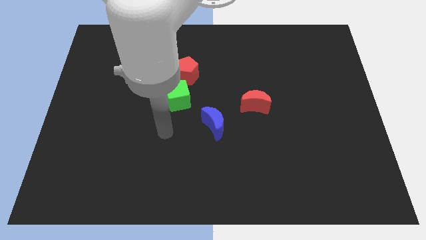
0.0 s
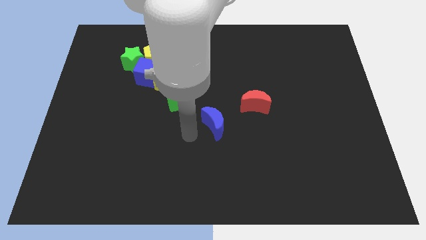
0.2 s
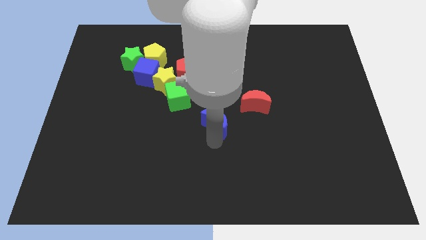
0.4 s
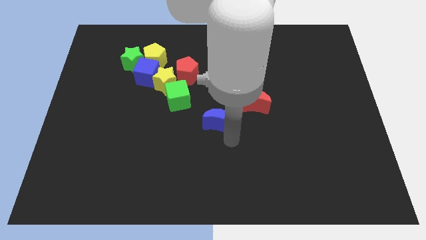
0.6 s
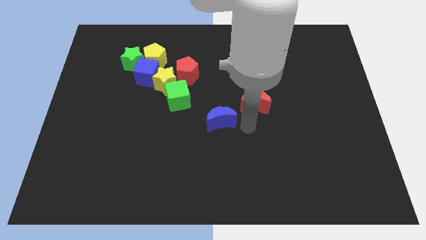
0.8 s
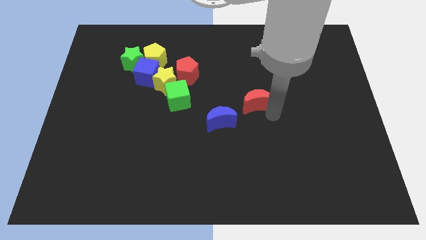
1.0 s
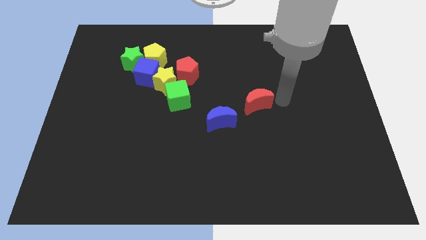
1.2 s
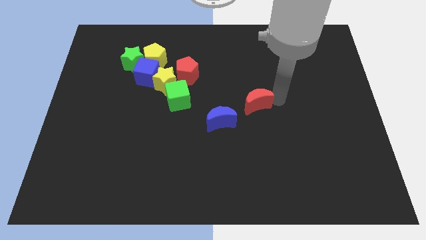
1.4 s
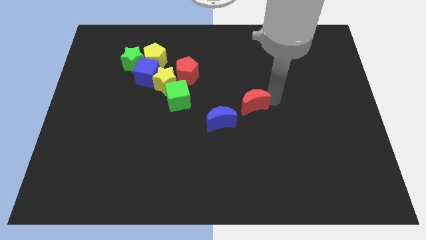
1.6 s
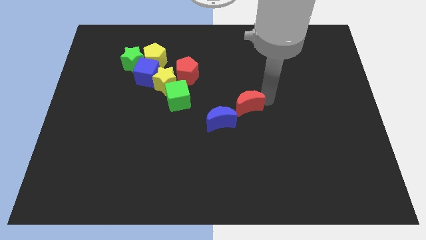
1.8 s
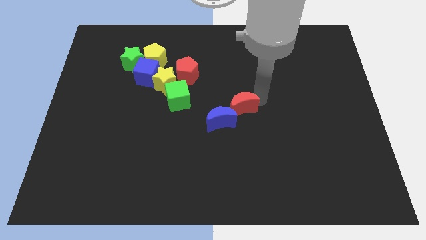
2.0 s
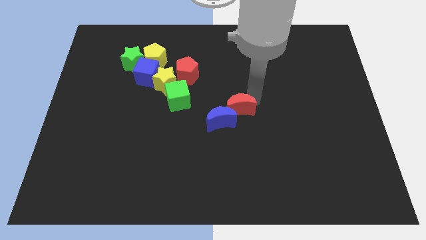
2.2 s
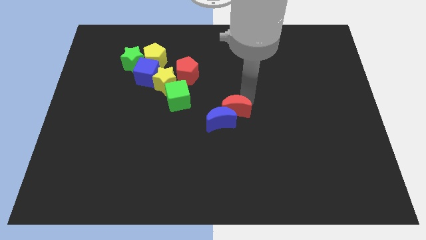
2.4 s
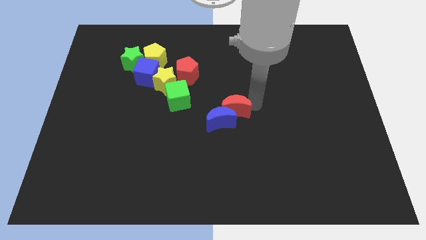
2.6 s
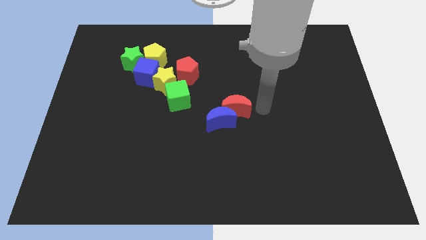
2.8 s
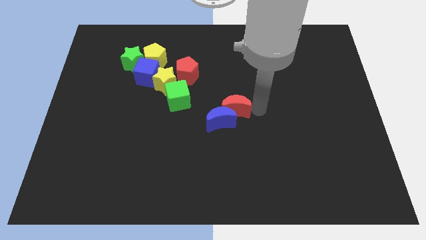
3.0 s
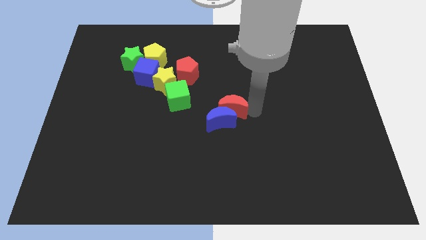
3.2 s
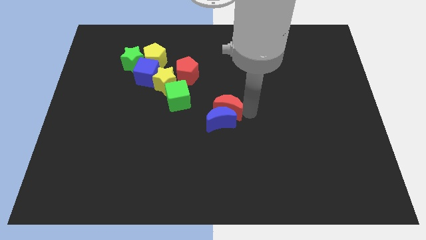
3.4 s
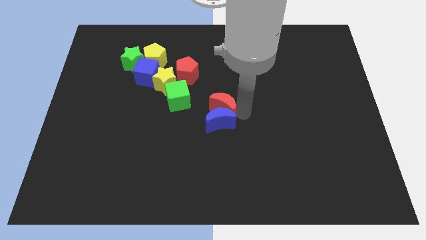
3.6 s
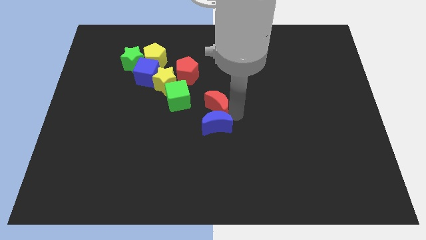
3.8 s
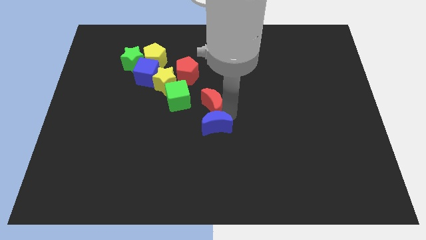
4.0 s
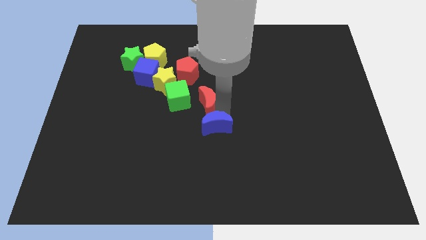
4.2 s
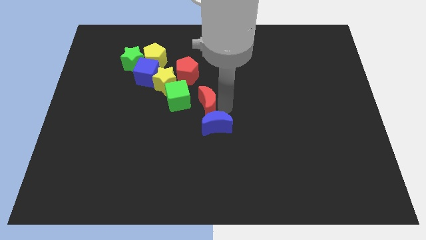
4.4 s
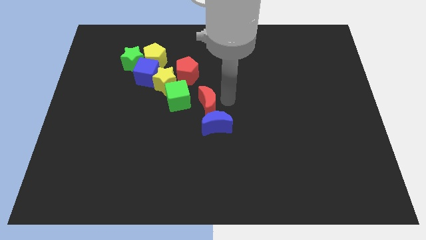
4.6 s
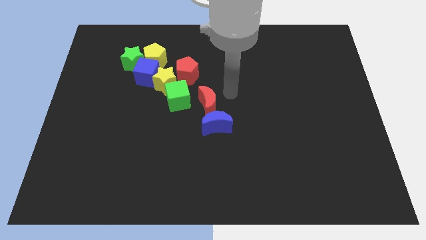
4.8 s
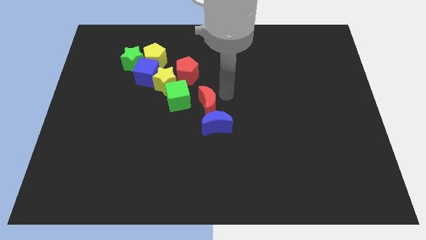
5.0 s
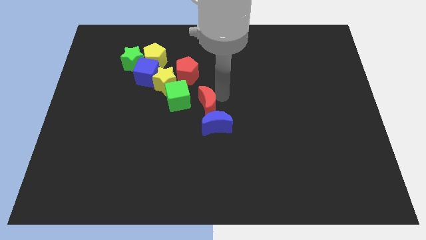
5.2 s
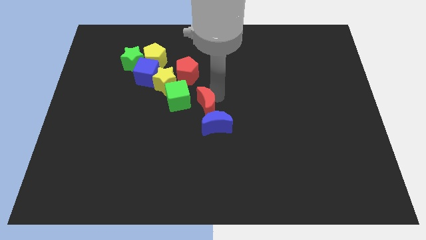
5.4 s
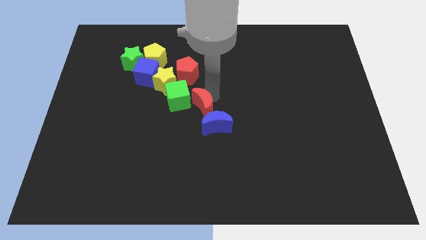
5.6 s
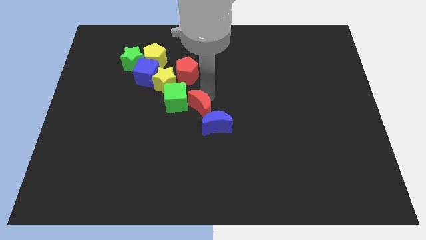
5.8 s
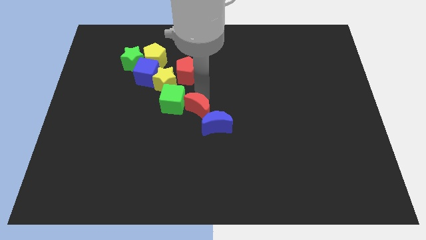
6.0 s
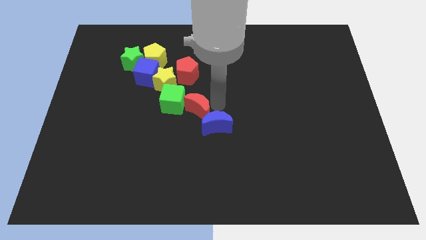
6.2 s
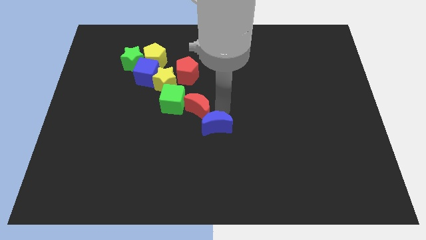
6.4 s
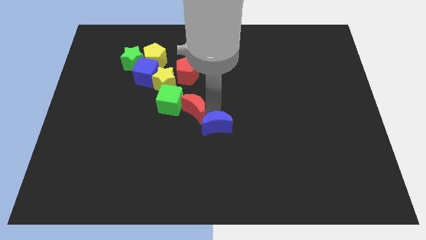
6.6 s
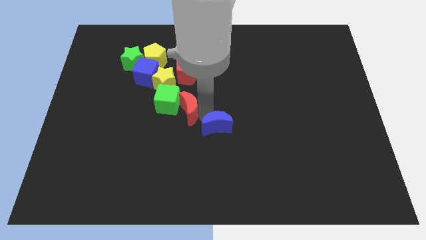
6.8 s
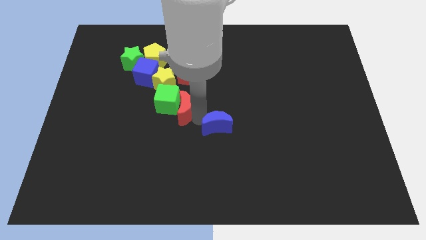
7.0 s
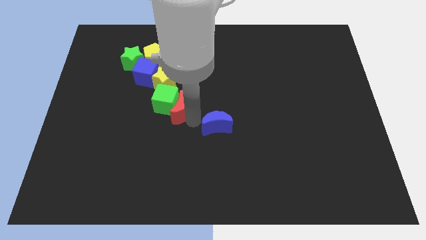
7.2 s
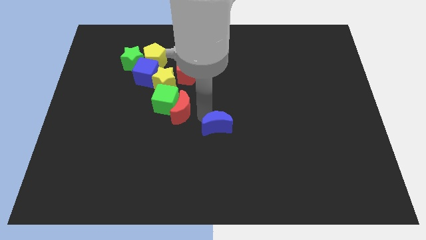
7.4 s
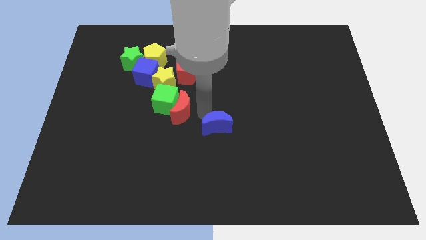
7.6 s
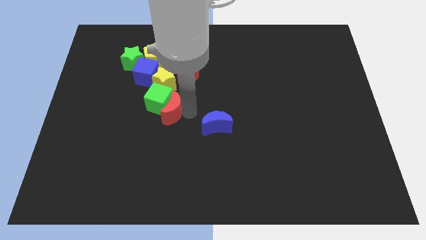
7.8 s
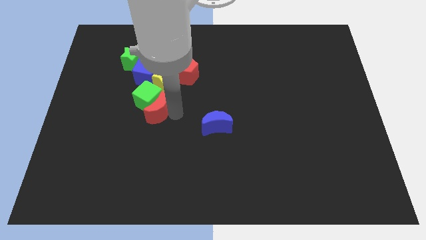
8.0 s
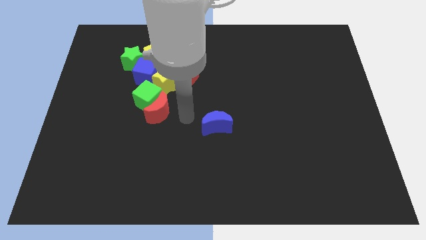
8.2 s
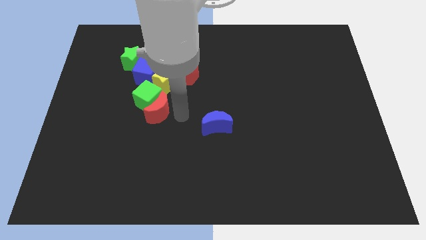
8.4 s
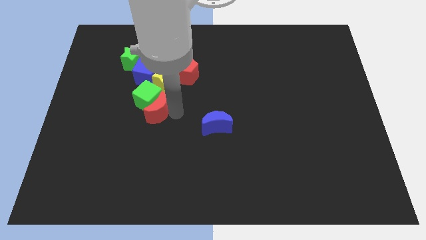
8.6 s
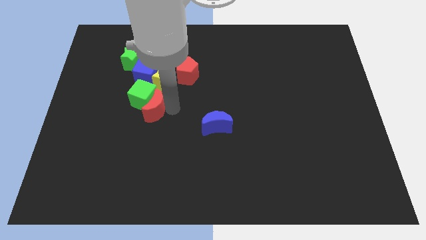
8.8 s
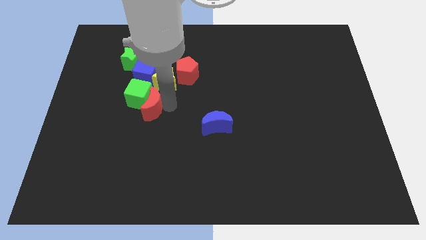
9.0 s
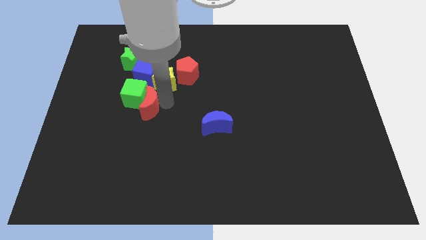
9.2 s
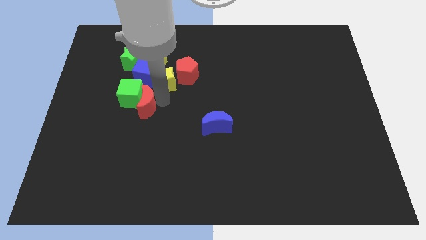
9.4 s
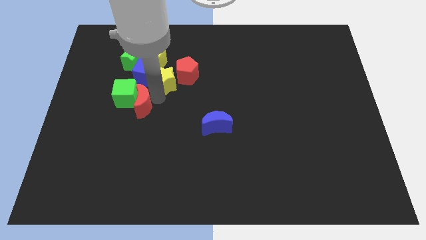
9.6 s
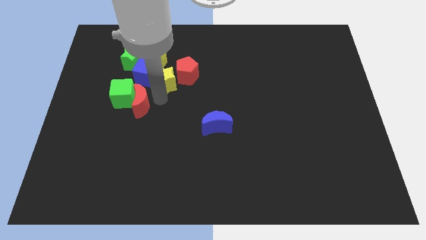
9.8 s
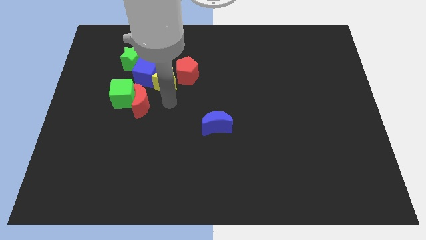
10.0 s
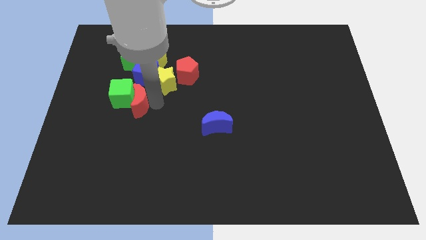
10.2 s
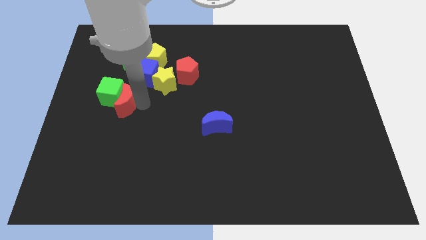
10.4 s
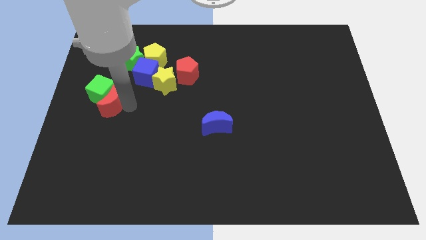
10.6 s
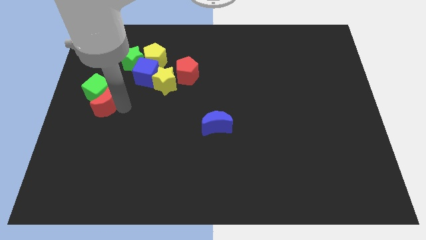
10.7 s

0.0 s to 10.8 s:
move the red moon to the left side of the board

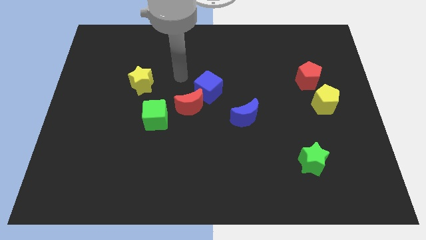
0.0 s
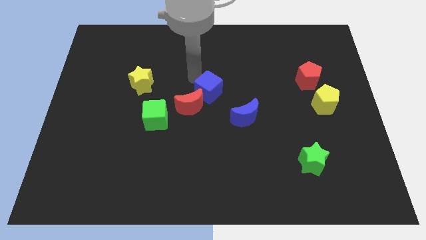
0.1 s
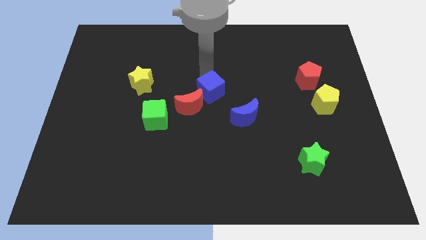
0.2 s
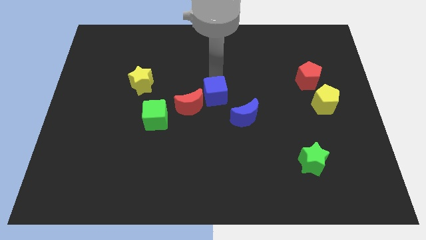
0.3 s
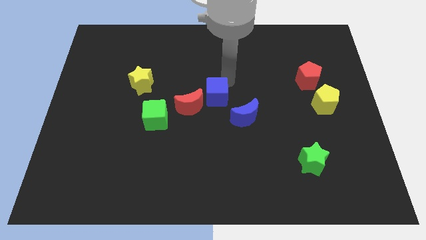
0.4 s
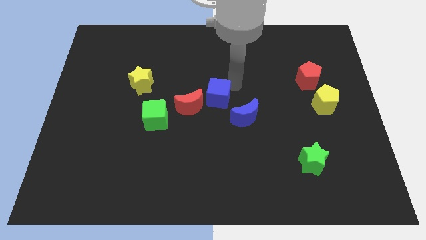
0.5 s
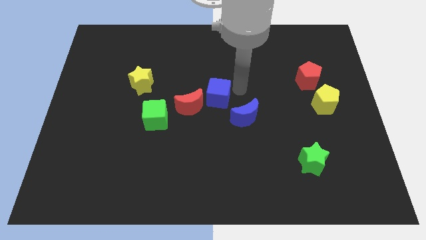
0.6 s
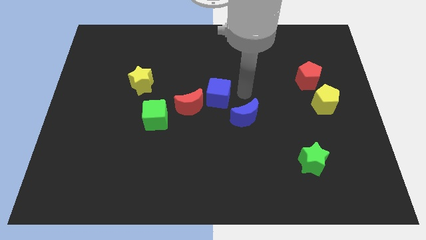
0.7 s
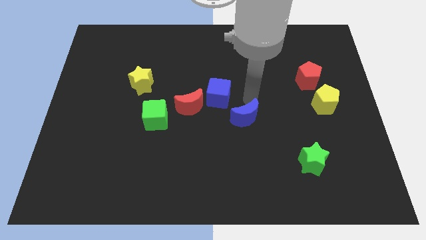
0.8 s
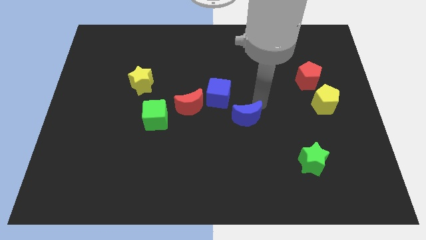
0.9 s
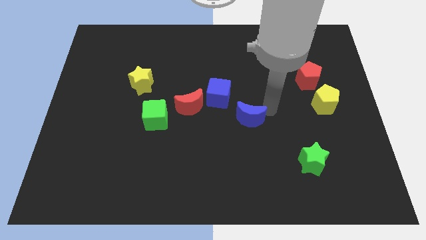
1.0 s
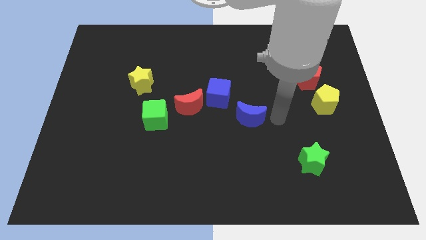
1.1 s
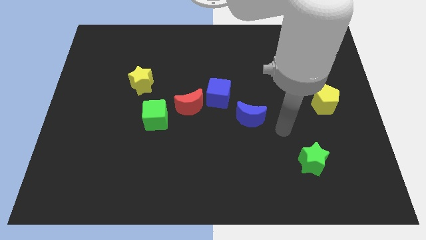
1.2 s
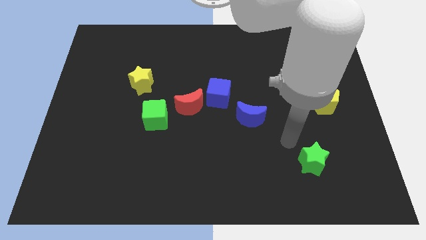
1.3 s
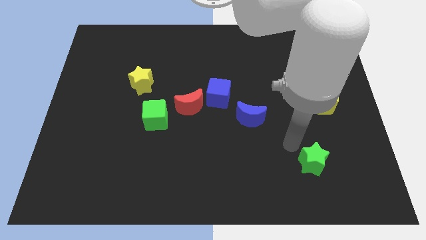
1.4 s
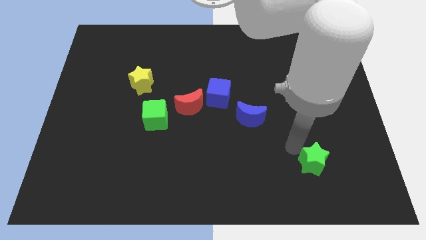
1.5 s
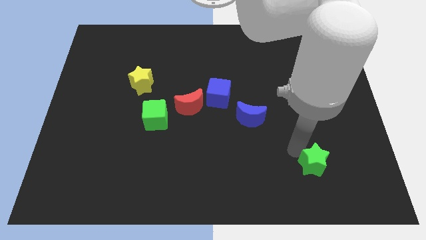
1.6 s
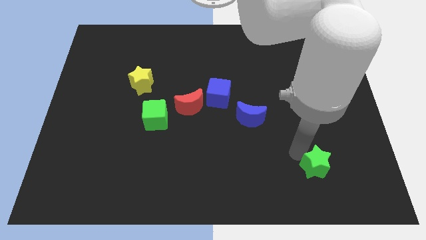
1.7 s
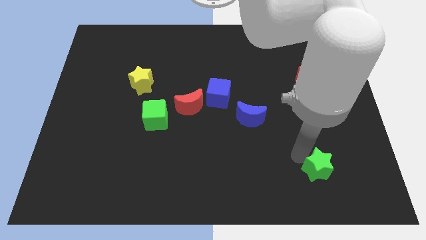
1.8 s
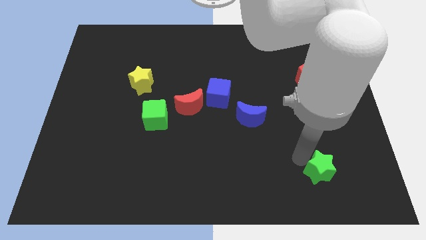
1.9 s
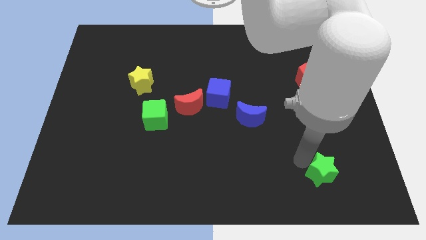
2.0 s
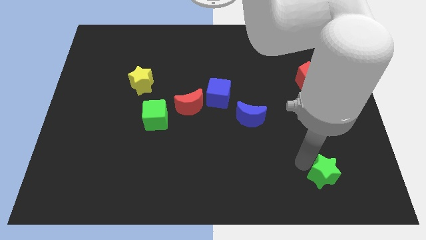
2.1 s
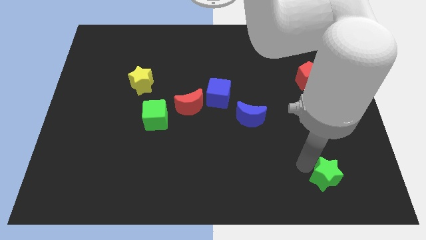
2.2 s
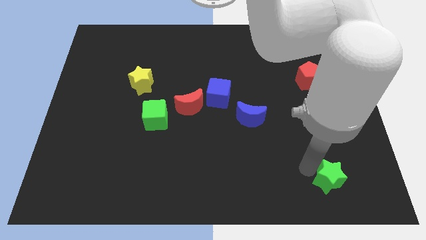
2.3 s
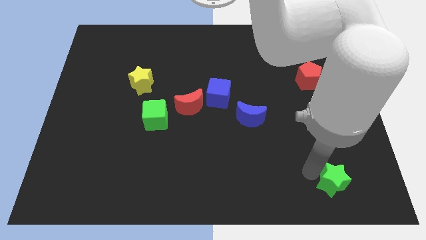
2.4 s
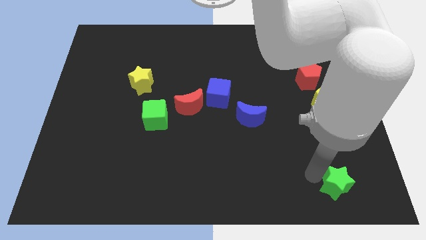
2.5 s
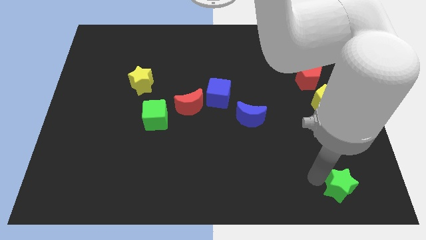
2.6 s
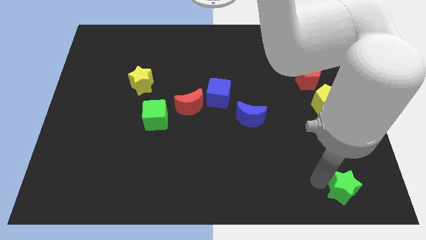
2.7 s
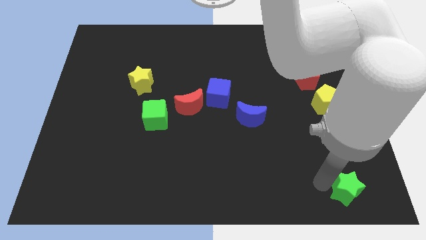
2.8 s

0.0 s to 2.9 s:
move the green star to the bottom right of the board
